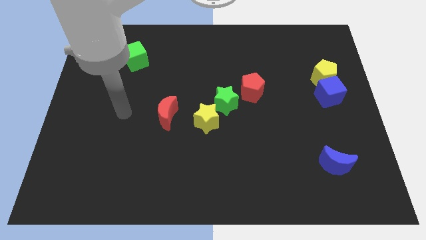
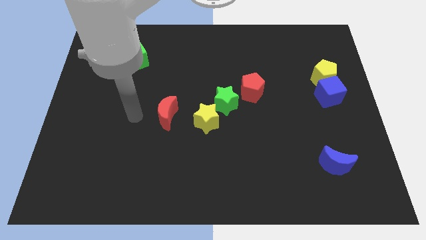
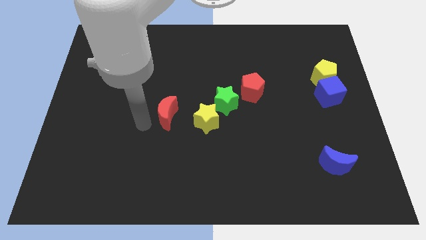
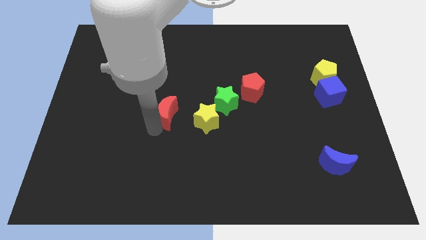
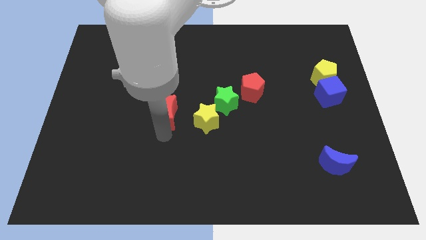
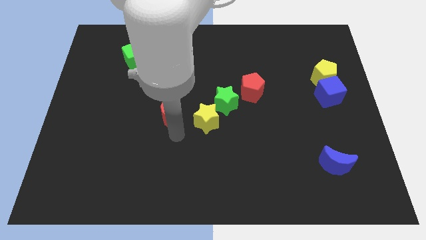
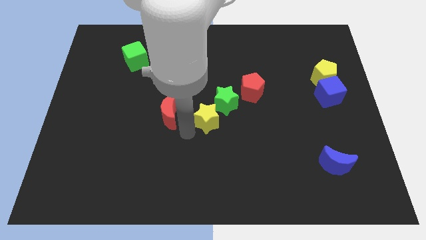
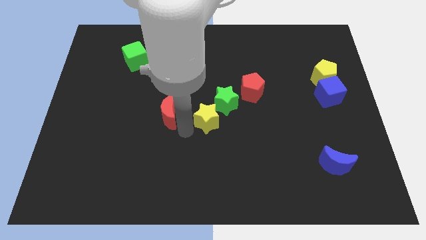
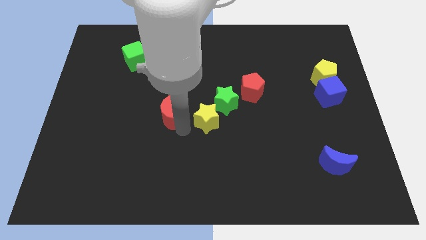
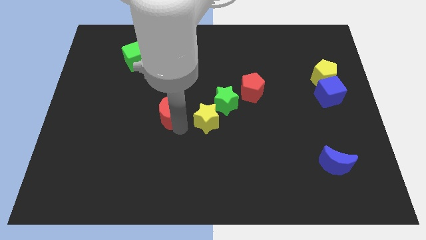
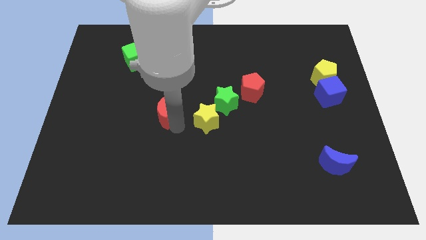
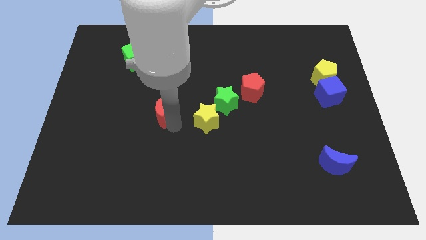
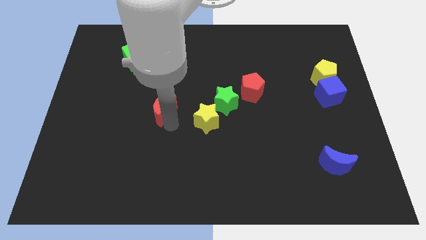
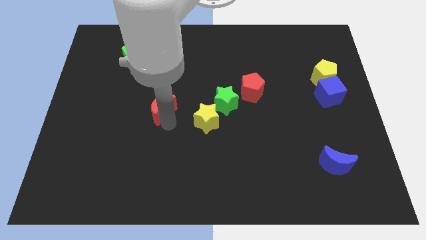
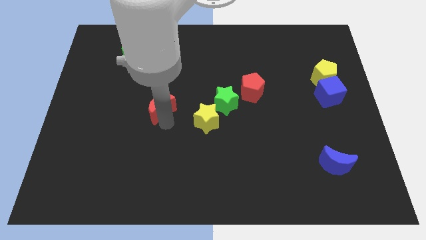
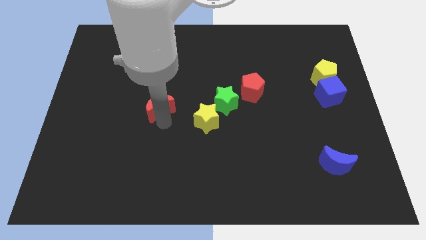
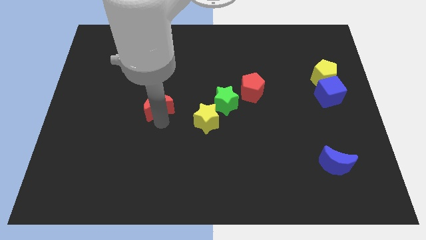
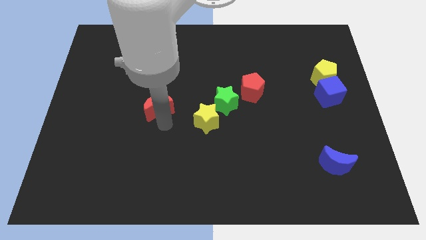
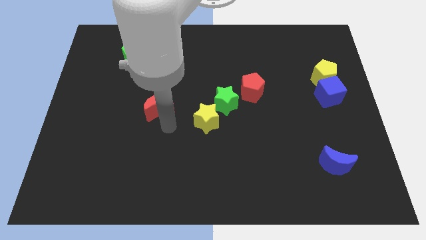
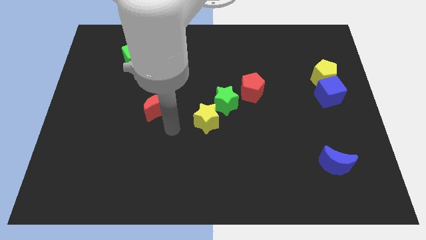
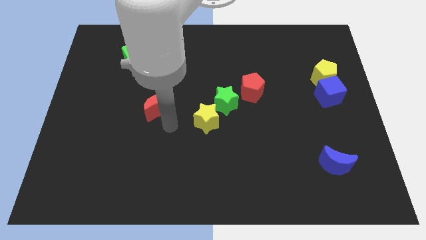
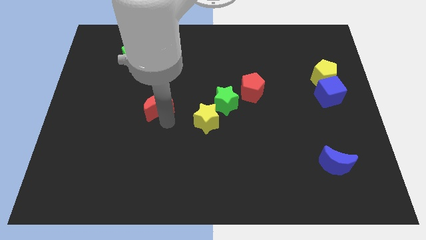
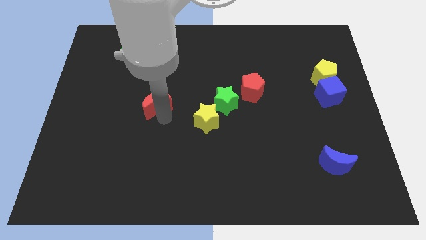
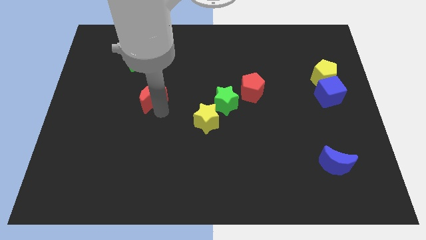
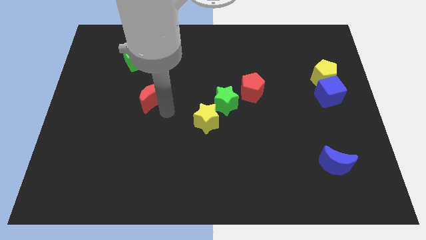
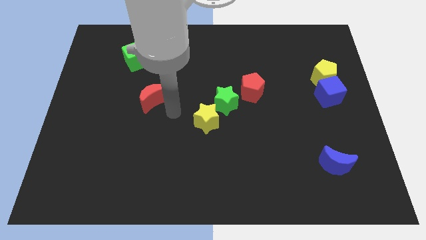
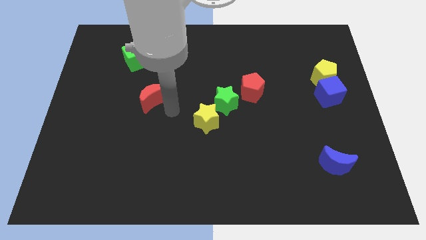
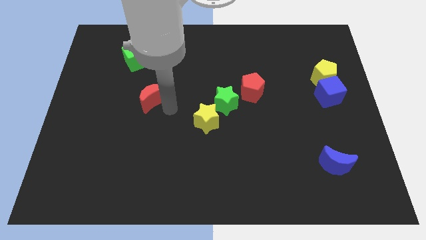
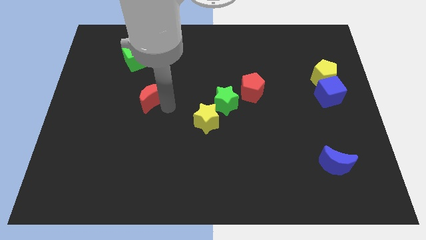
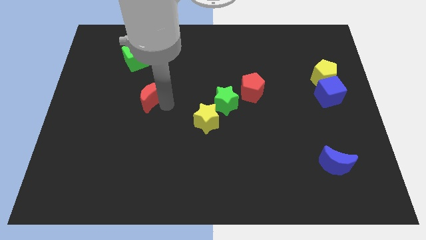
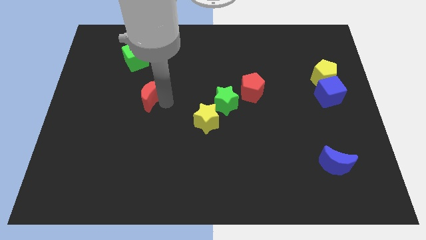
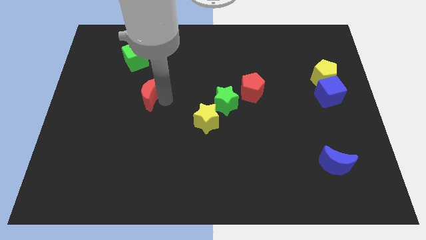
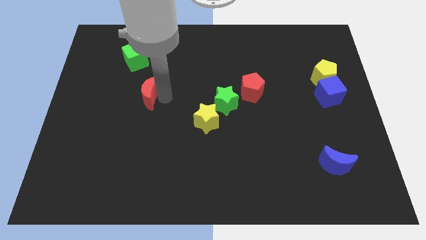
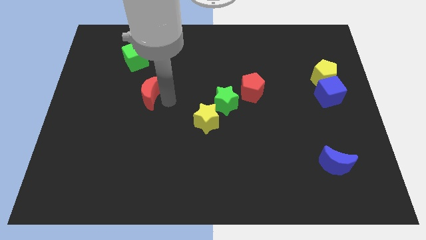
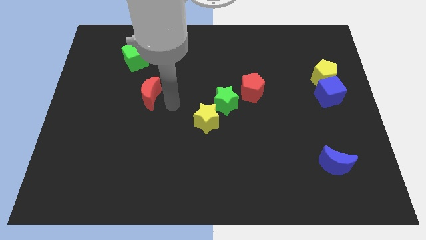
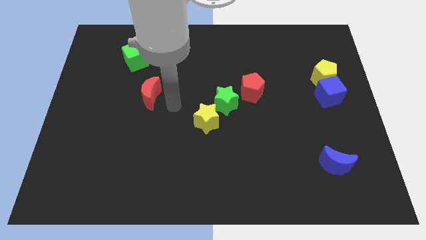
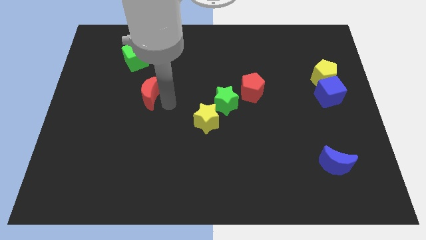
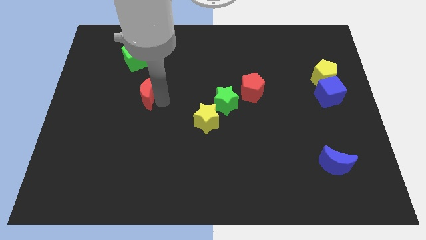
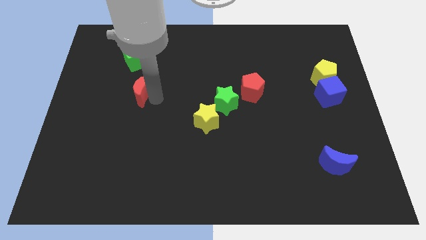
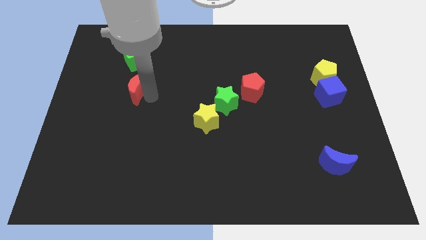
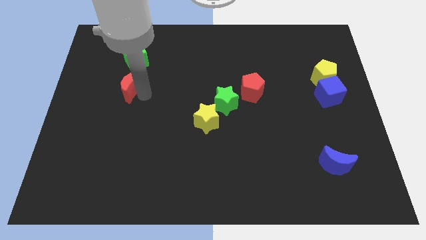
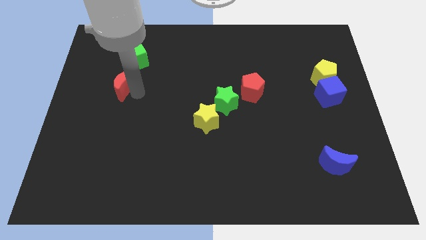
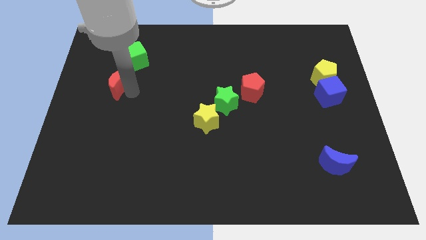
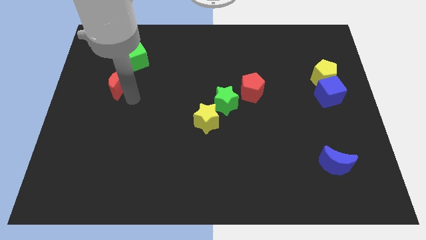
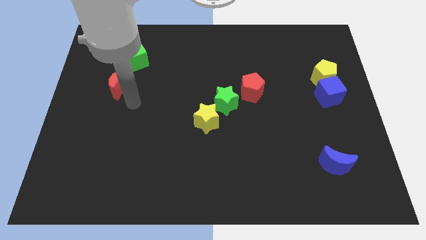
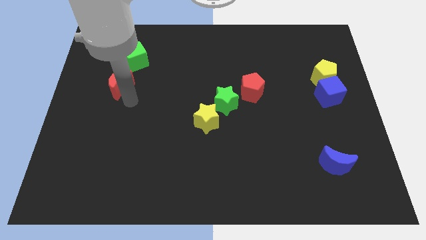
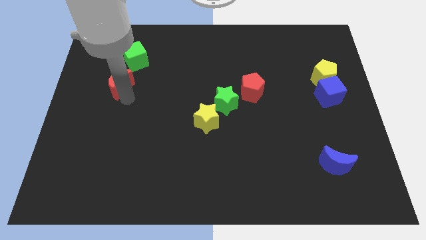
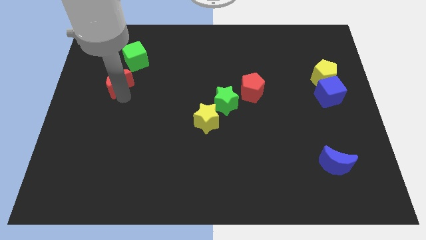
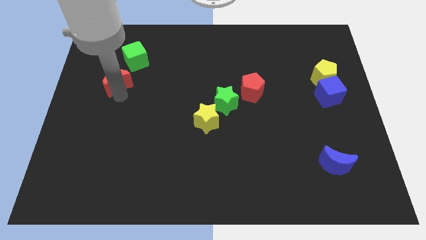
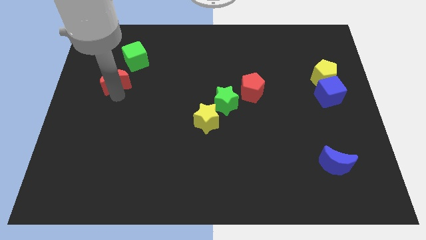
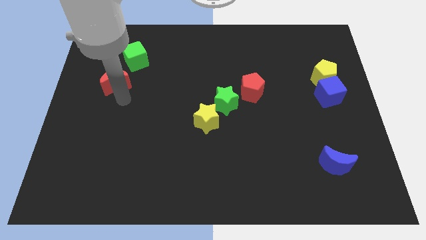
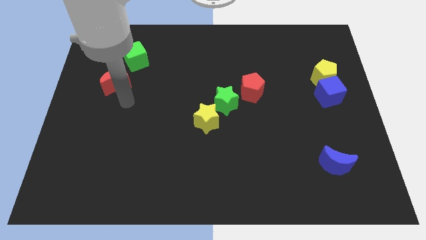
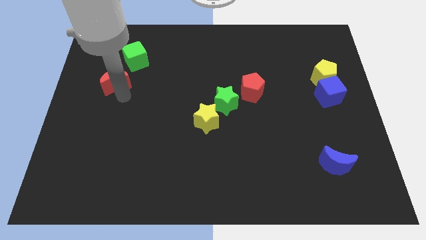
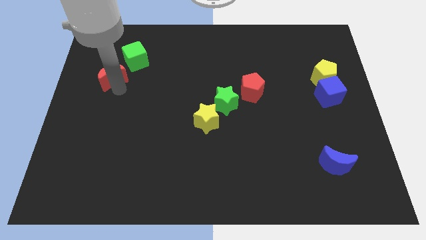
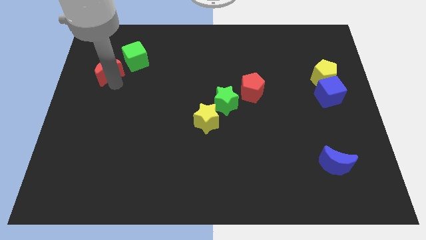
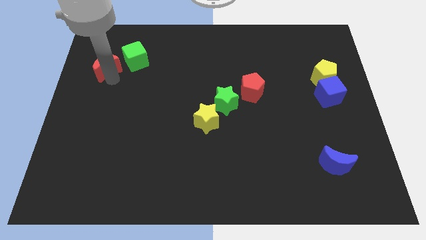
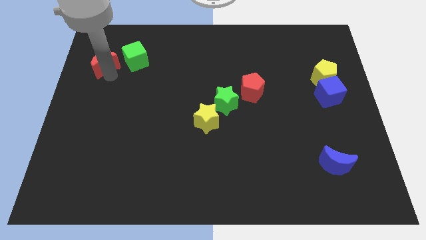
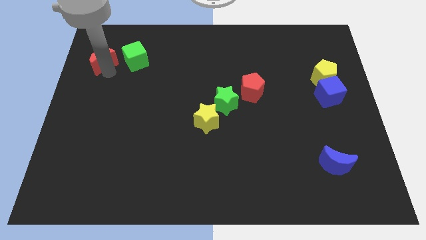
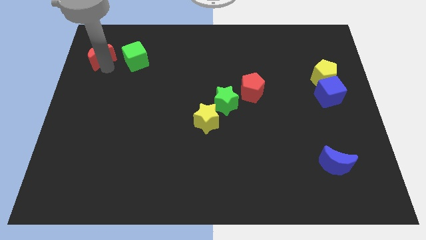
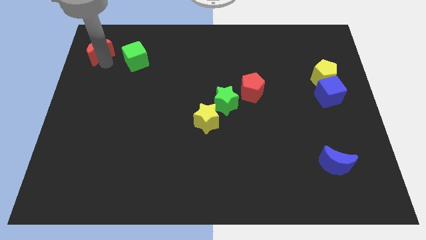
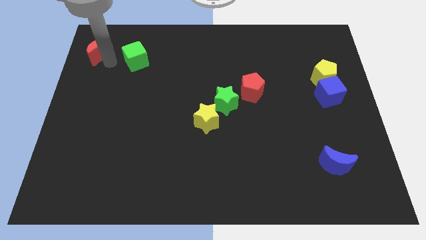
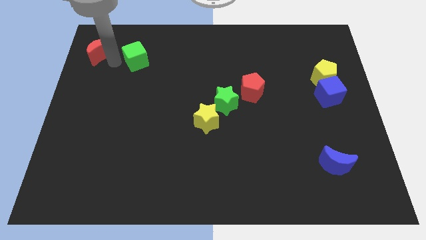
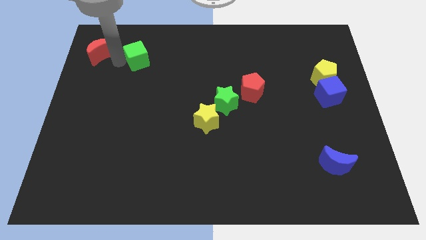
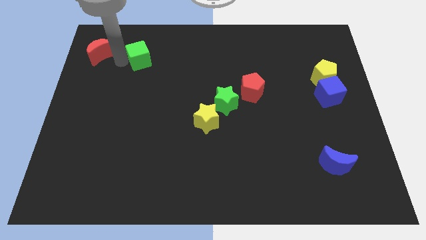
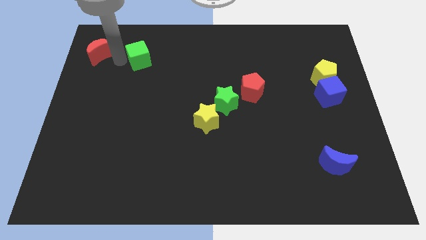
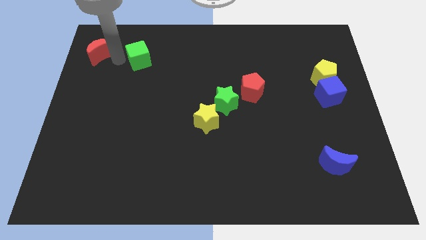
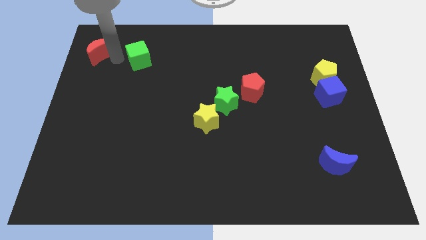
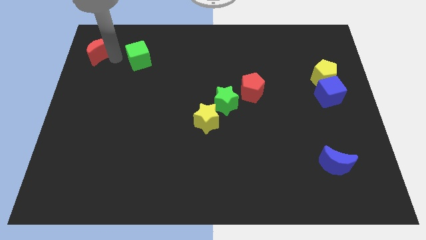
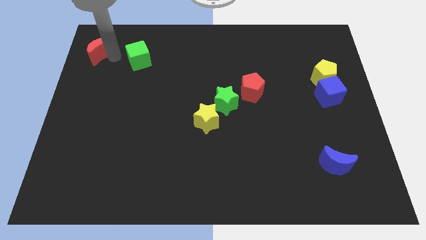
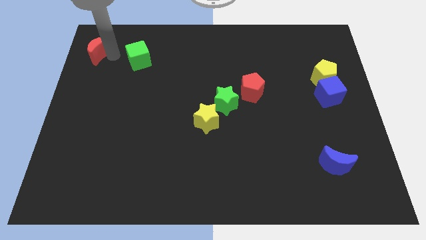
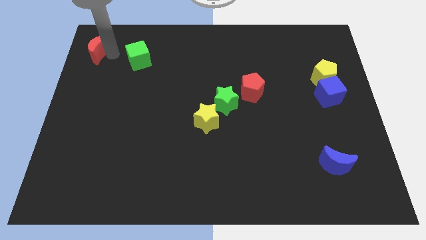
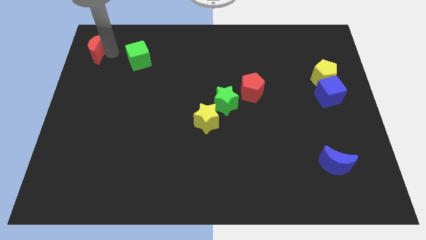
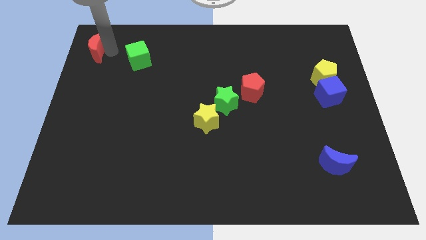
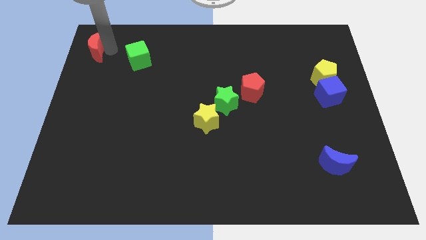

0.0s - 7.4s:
slide the red moon to the upper left corner
